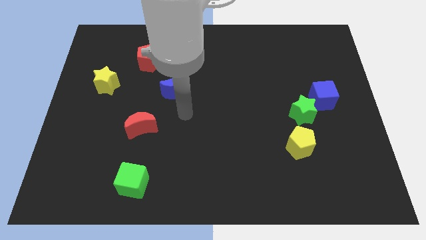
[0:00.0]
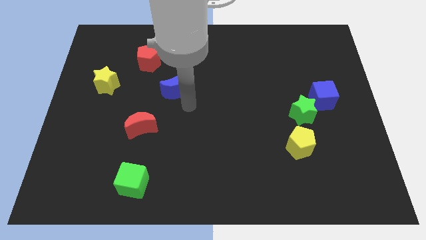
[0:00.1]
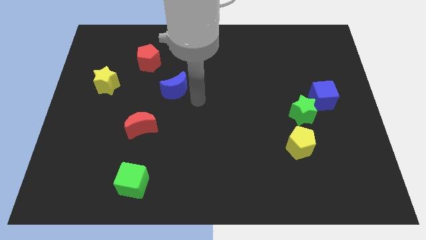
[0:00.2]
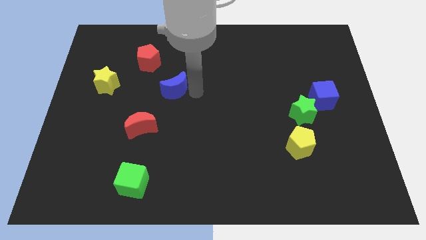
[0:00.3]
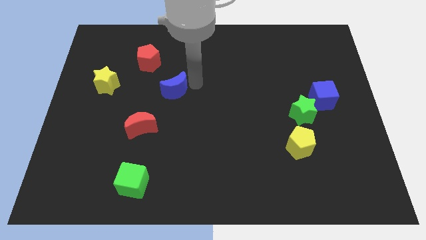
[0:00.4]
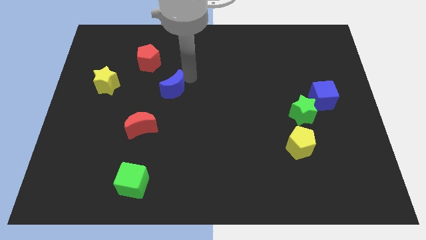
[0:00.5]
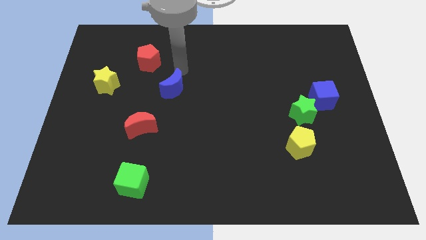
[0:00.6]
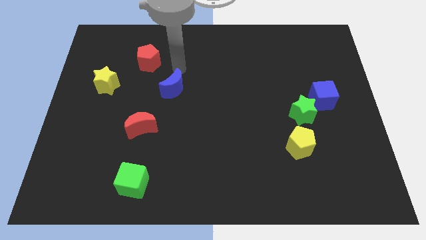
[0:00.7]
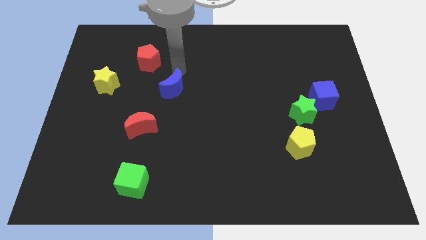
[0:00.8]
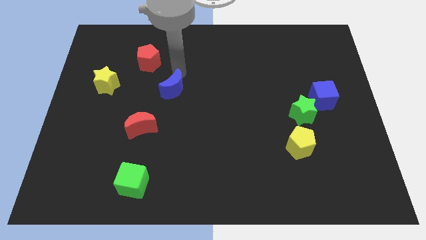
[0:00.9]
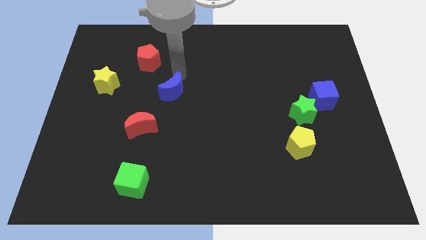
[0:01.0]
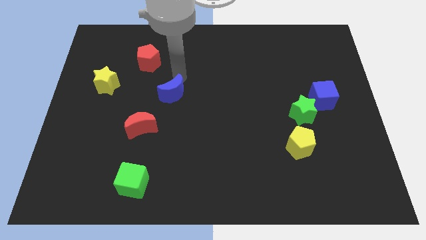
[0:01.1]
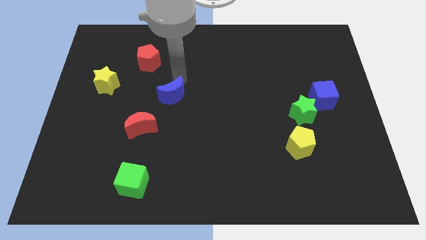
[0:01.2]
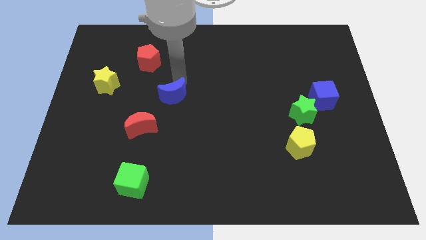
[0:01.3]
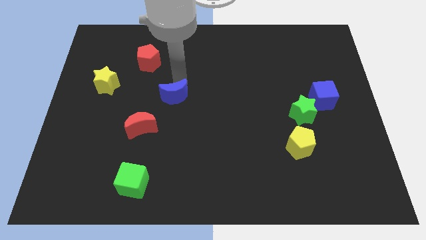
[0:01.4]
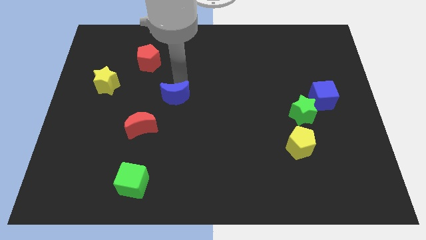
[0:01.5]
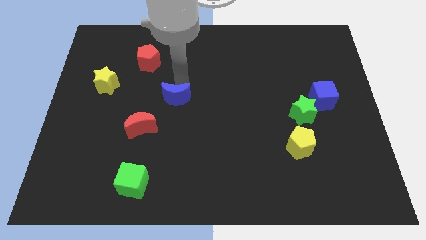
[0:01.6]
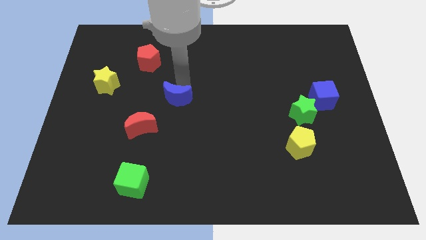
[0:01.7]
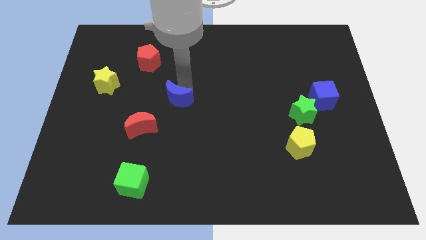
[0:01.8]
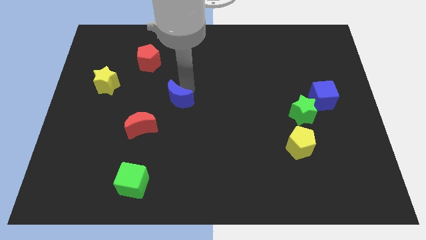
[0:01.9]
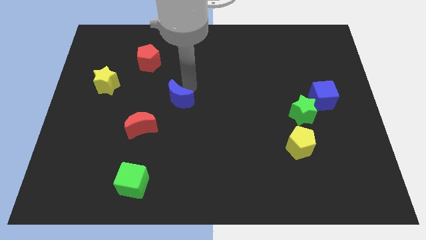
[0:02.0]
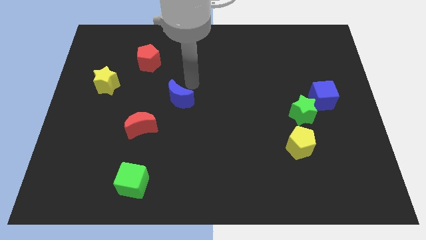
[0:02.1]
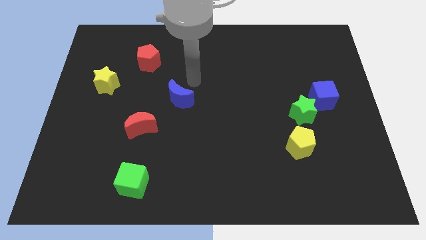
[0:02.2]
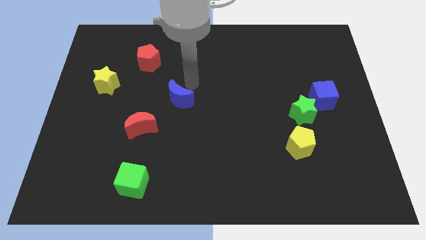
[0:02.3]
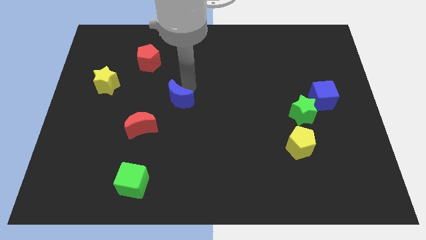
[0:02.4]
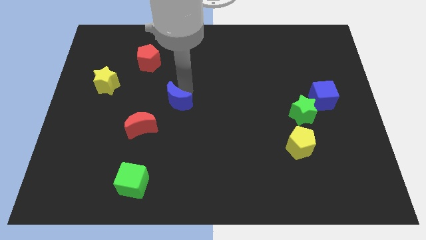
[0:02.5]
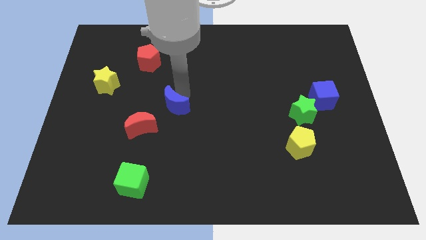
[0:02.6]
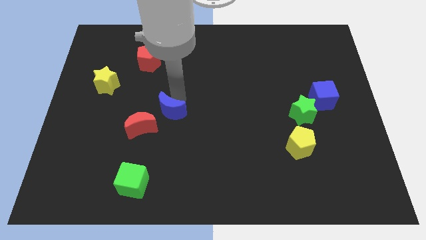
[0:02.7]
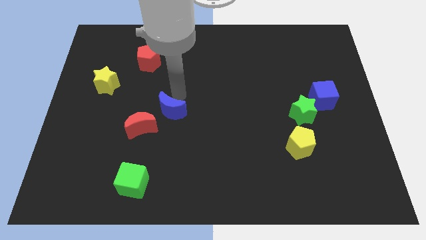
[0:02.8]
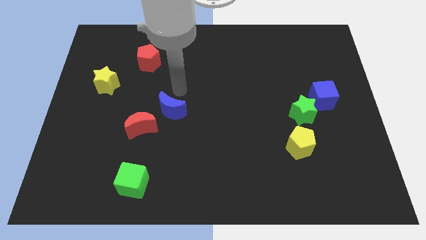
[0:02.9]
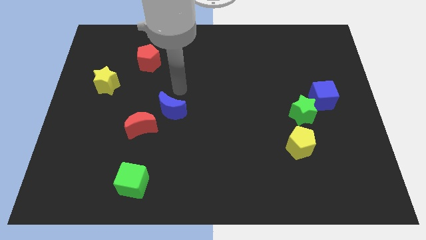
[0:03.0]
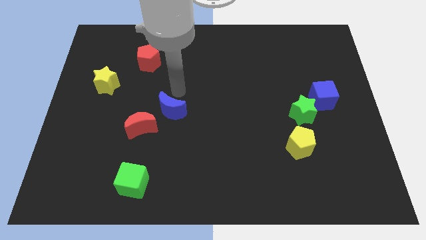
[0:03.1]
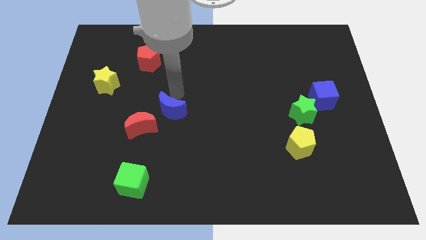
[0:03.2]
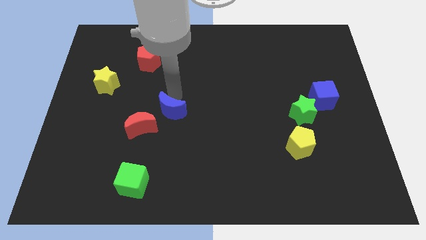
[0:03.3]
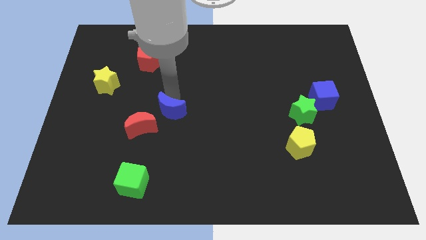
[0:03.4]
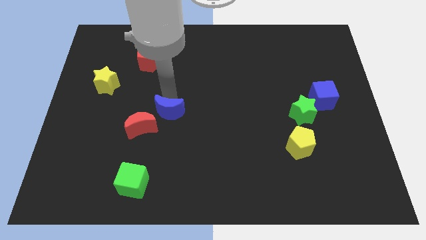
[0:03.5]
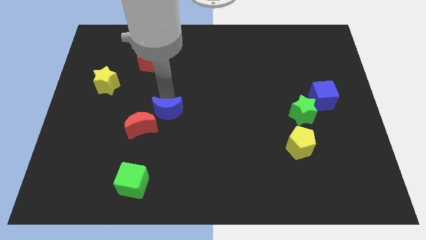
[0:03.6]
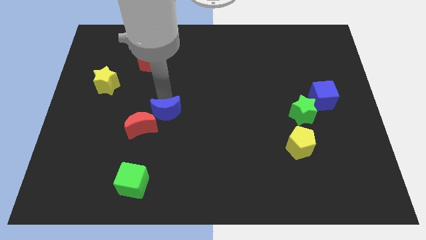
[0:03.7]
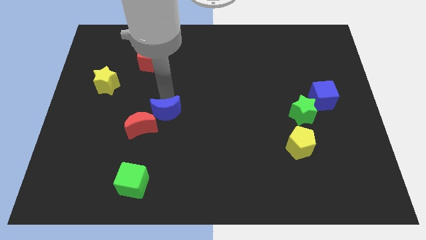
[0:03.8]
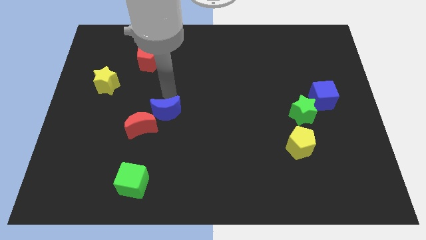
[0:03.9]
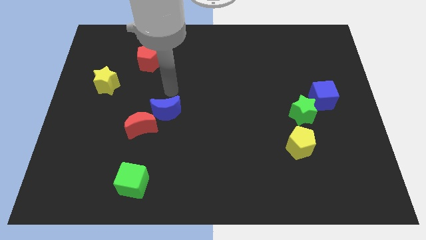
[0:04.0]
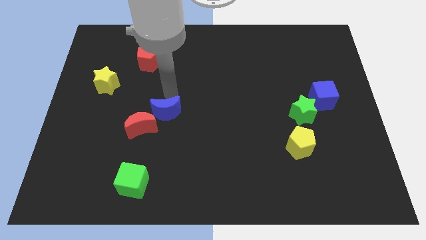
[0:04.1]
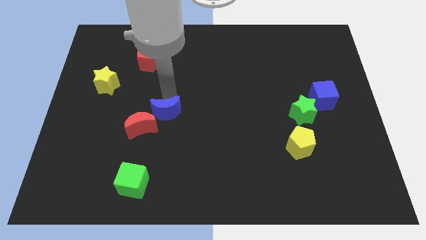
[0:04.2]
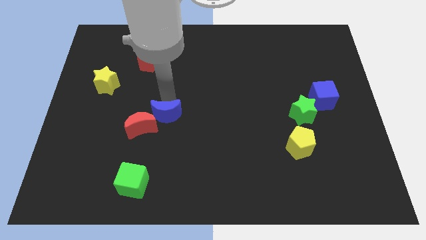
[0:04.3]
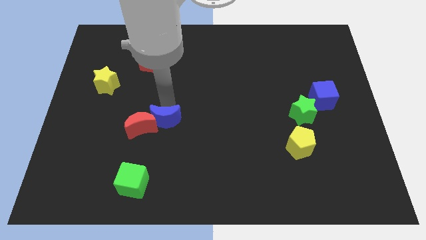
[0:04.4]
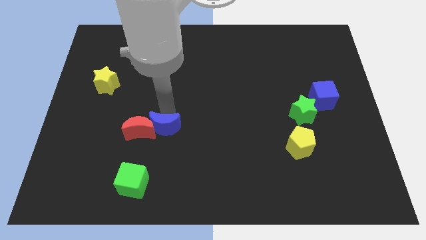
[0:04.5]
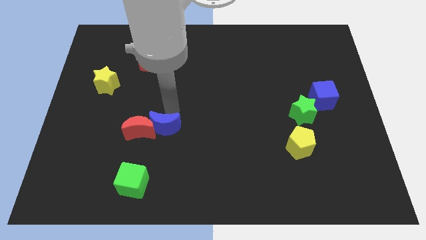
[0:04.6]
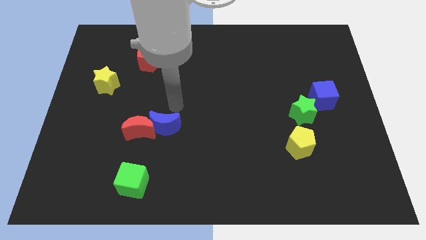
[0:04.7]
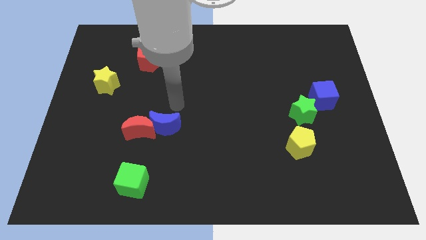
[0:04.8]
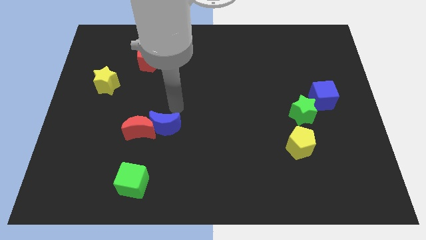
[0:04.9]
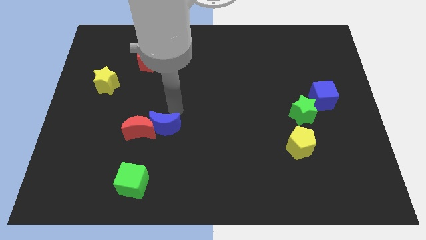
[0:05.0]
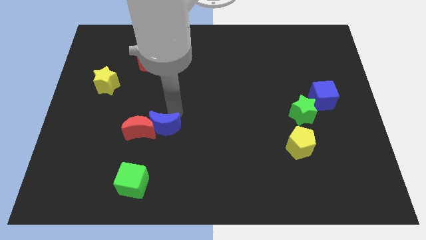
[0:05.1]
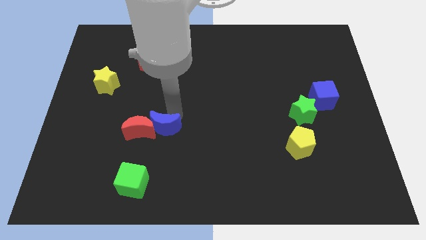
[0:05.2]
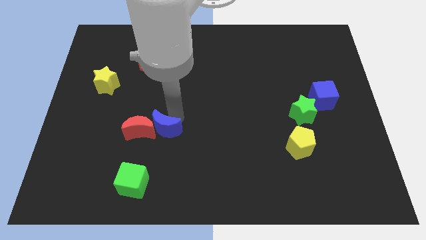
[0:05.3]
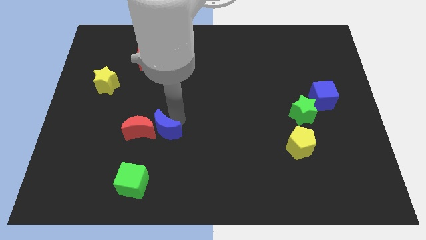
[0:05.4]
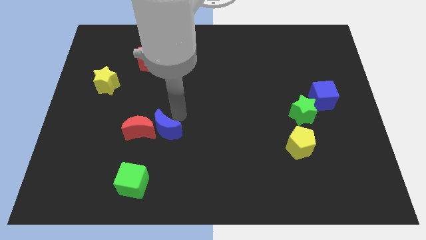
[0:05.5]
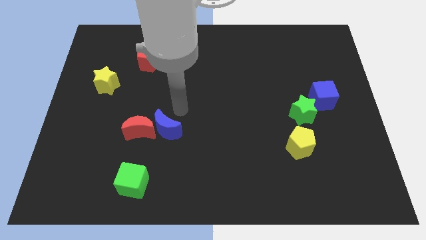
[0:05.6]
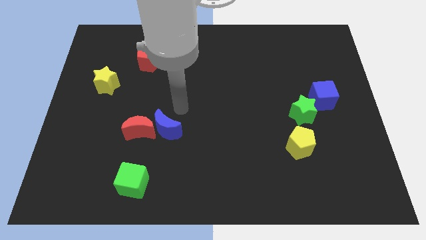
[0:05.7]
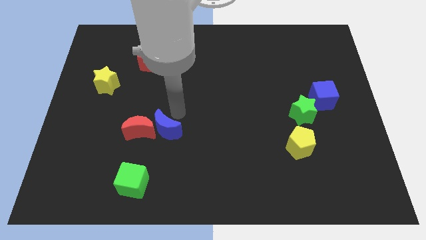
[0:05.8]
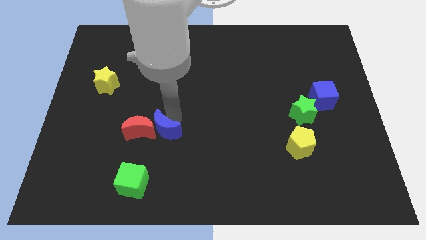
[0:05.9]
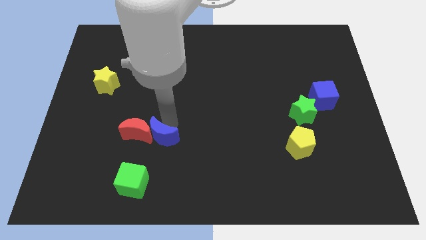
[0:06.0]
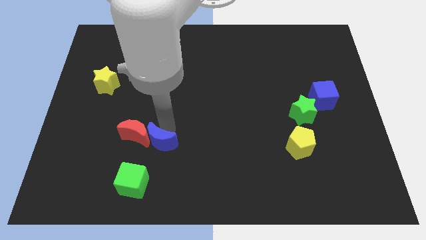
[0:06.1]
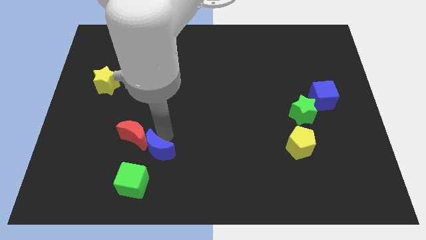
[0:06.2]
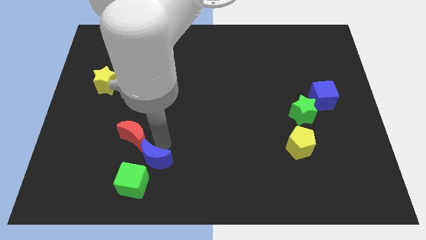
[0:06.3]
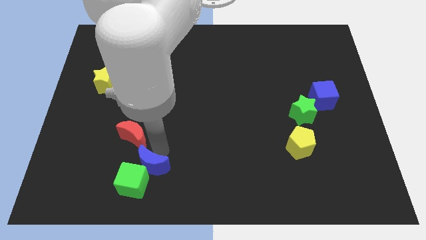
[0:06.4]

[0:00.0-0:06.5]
put the blue moon to the green cube

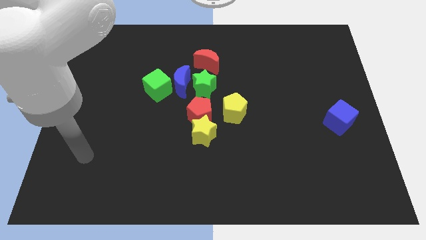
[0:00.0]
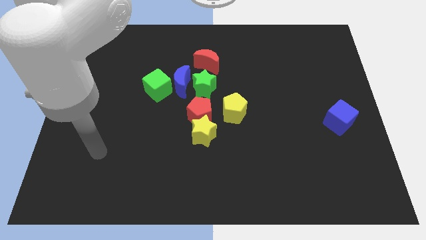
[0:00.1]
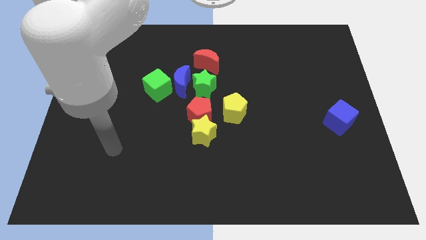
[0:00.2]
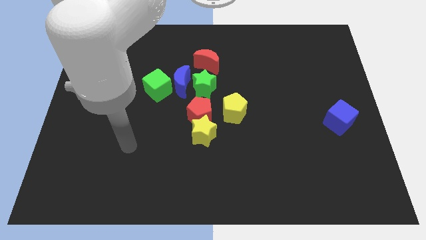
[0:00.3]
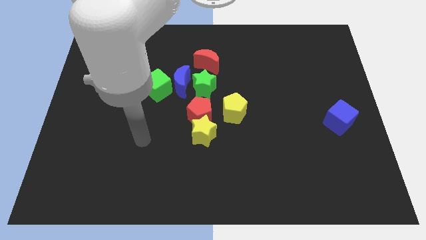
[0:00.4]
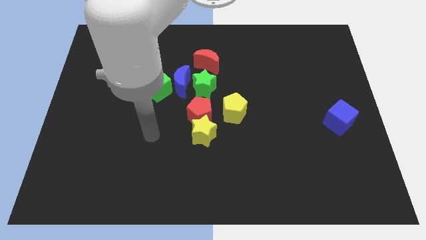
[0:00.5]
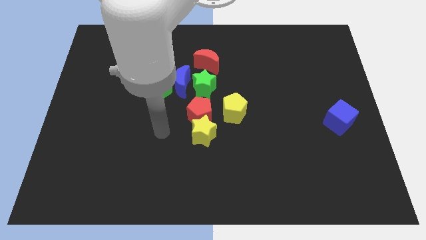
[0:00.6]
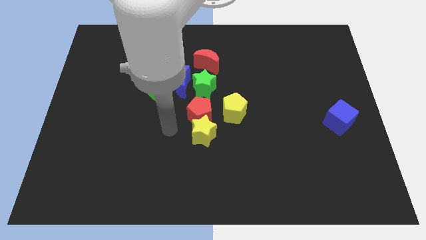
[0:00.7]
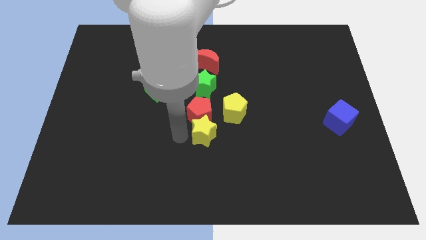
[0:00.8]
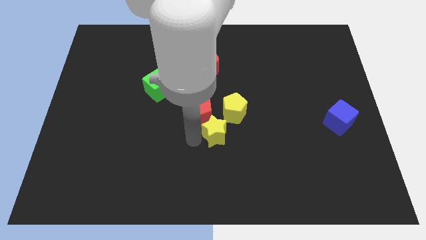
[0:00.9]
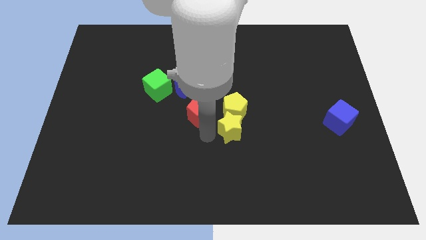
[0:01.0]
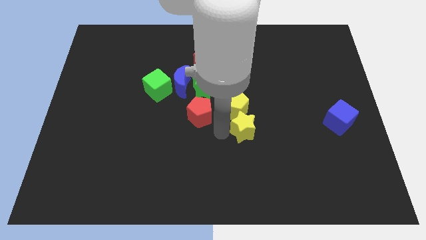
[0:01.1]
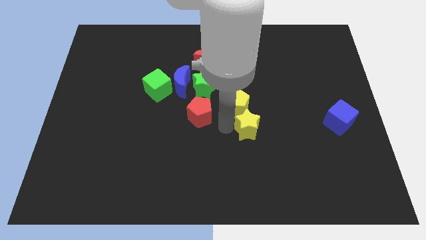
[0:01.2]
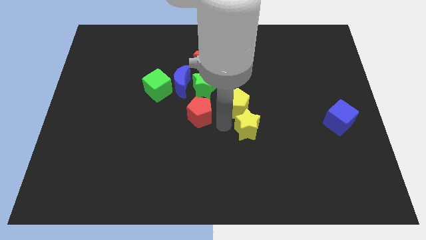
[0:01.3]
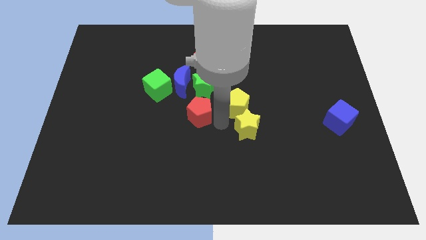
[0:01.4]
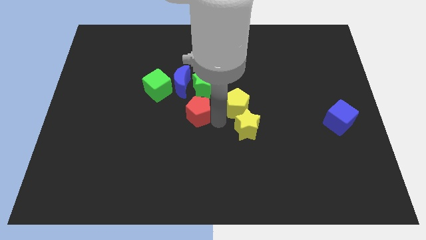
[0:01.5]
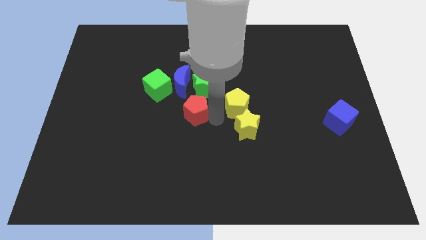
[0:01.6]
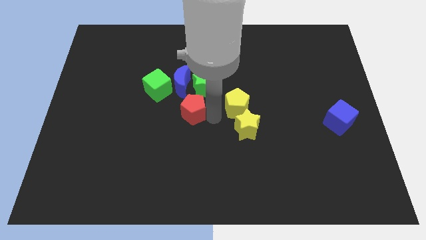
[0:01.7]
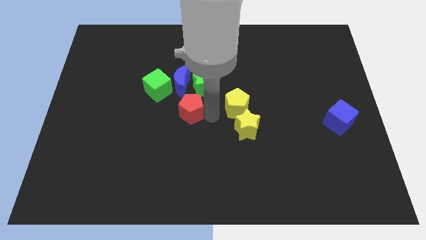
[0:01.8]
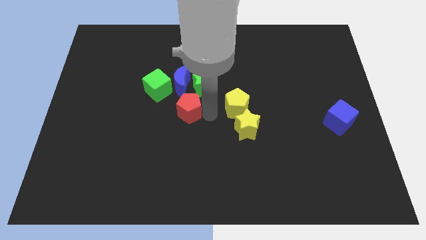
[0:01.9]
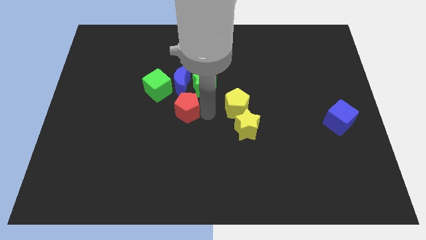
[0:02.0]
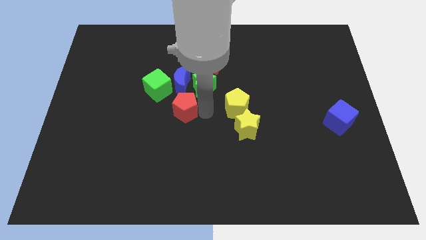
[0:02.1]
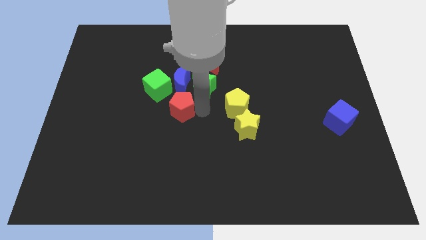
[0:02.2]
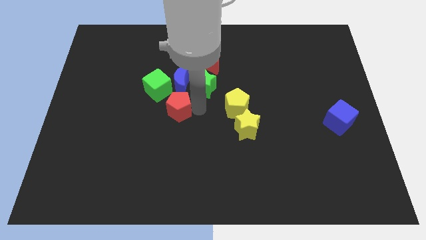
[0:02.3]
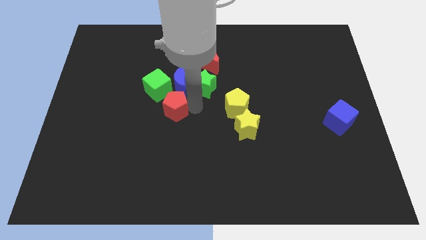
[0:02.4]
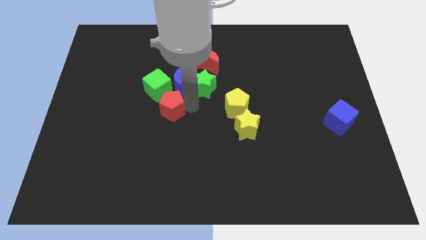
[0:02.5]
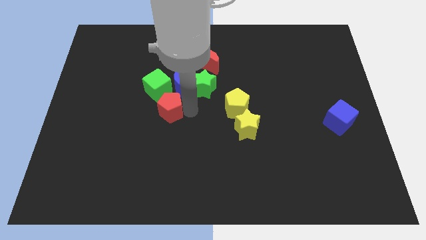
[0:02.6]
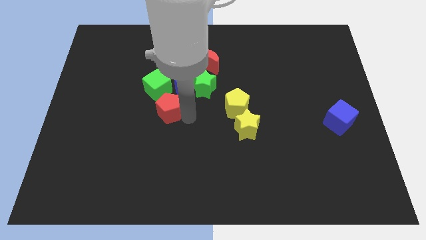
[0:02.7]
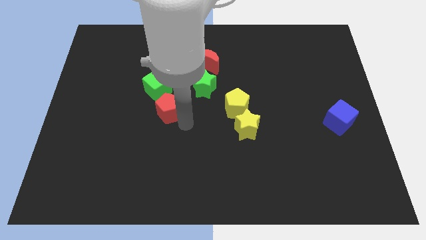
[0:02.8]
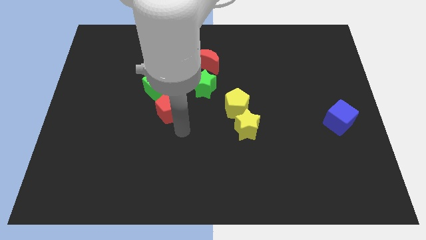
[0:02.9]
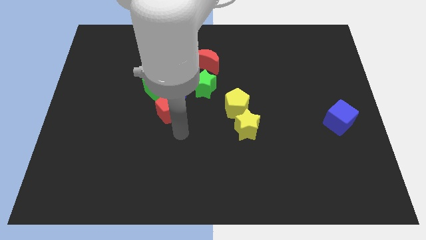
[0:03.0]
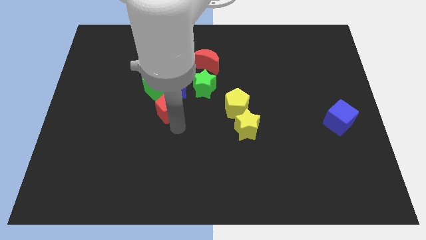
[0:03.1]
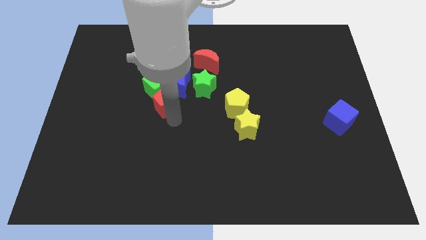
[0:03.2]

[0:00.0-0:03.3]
slide the red pentagon to the green cube
